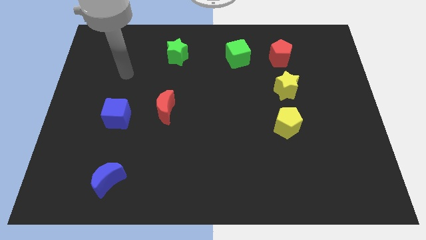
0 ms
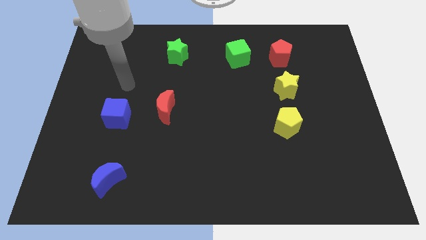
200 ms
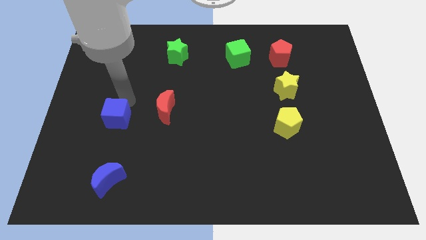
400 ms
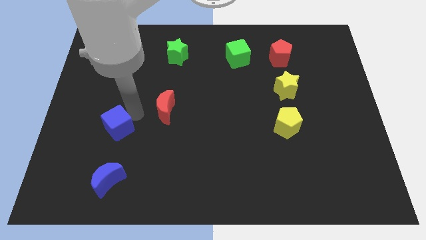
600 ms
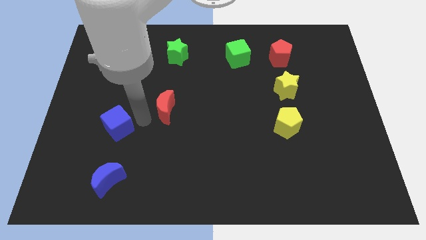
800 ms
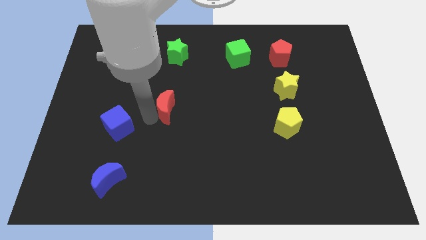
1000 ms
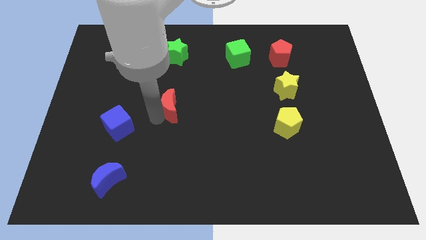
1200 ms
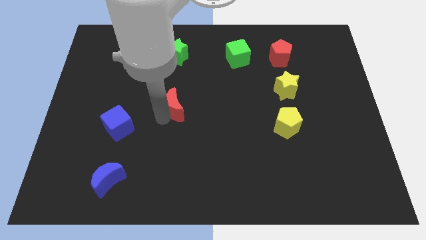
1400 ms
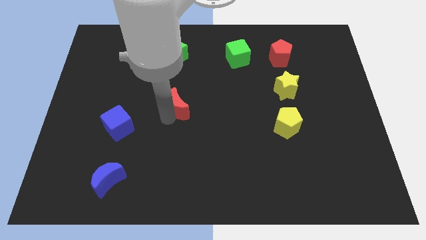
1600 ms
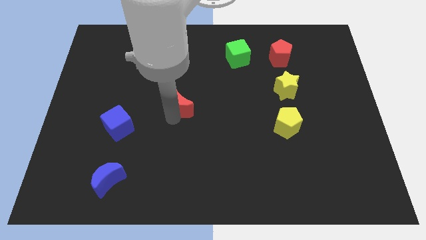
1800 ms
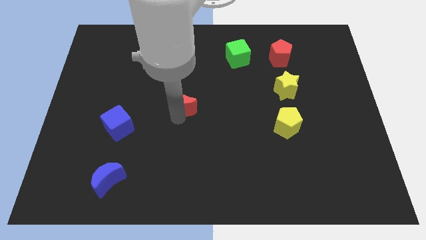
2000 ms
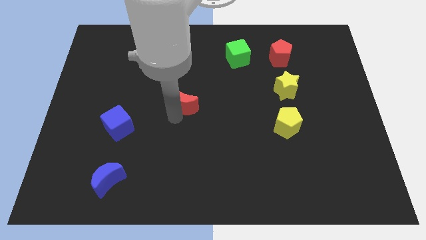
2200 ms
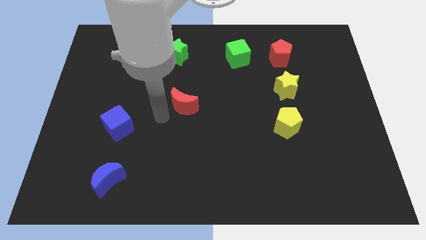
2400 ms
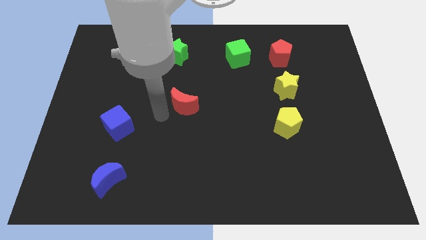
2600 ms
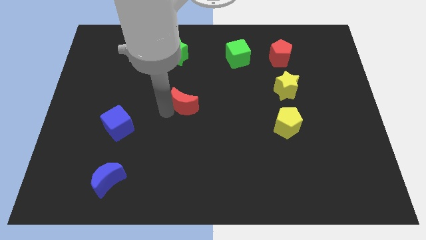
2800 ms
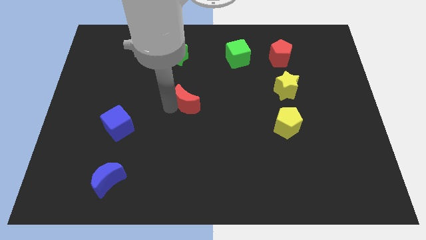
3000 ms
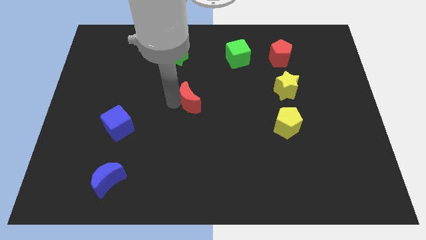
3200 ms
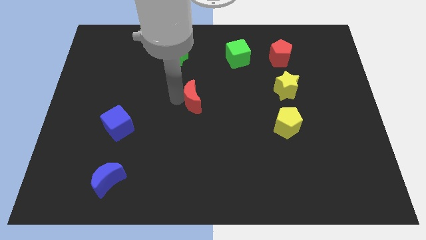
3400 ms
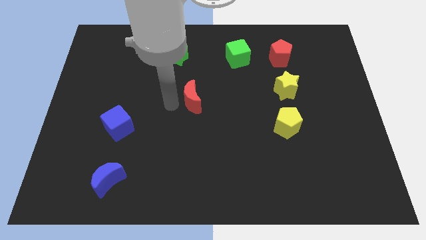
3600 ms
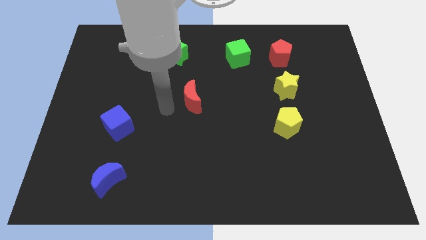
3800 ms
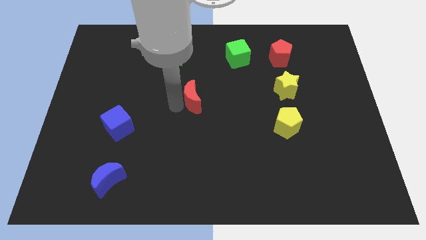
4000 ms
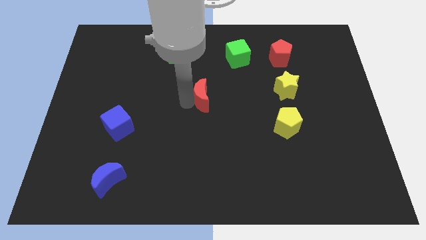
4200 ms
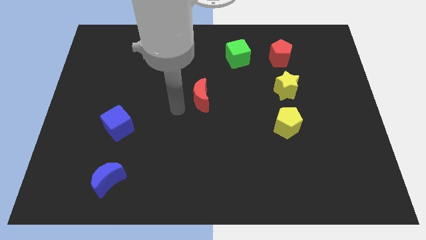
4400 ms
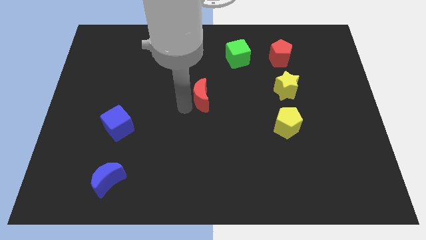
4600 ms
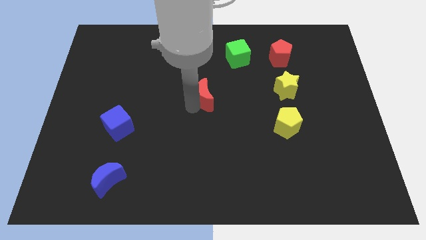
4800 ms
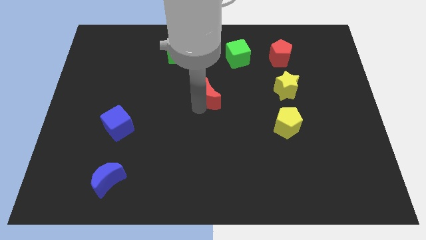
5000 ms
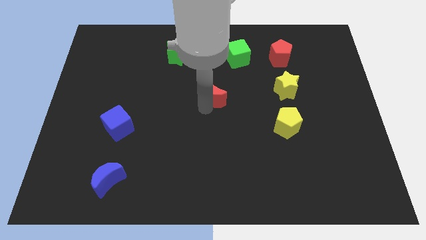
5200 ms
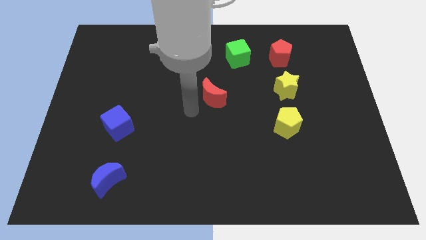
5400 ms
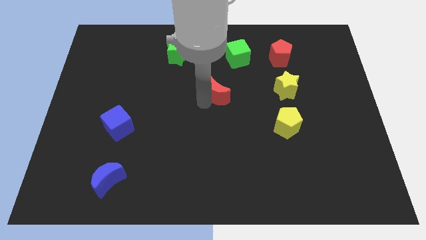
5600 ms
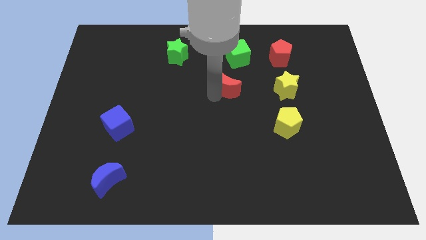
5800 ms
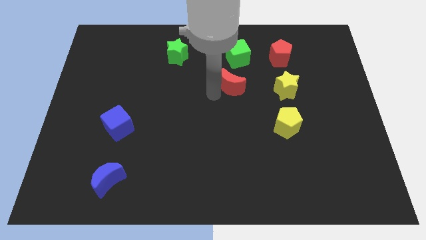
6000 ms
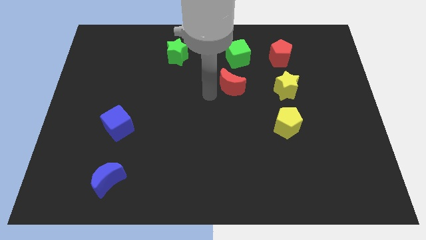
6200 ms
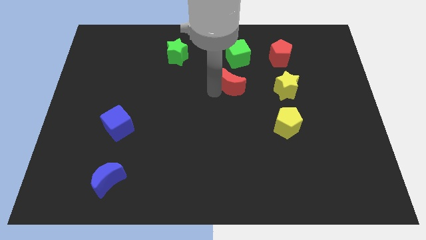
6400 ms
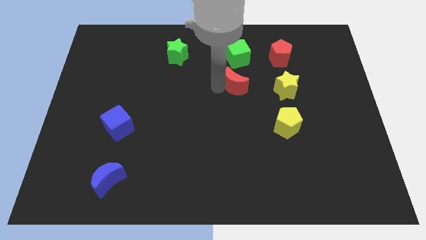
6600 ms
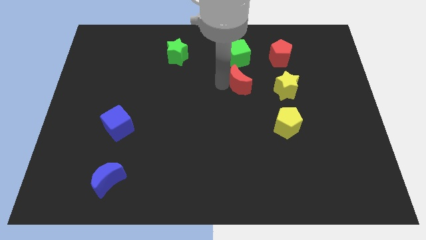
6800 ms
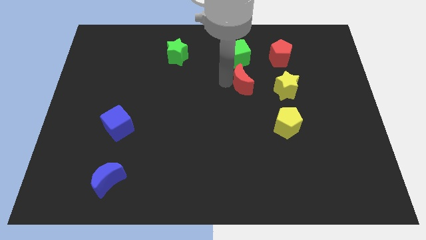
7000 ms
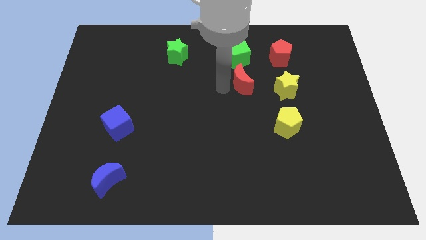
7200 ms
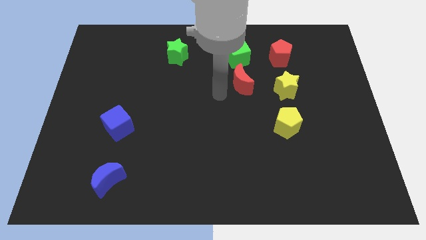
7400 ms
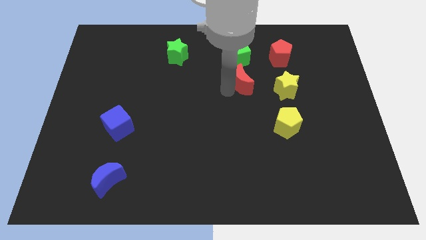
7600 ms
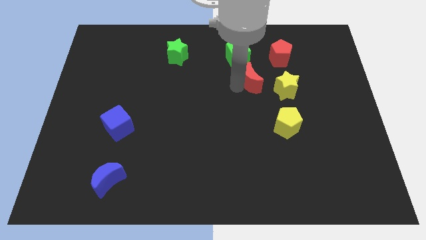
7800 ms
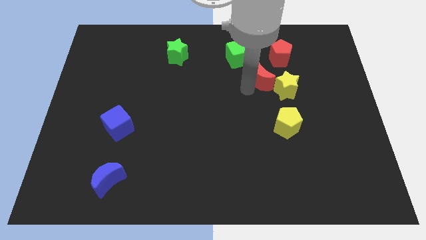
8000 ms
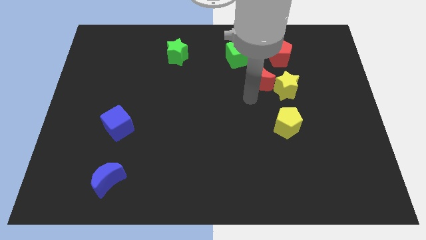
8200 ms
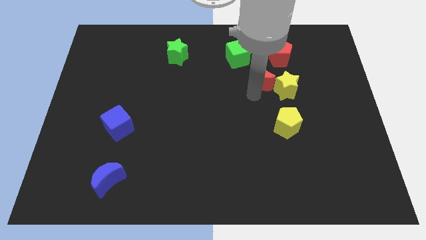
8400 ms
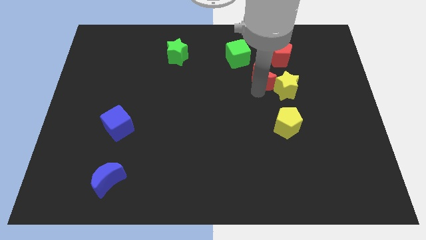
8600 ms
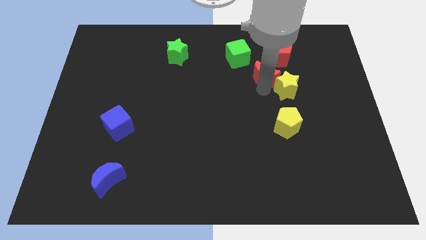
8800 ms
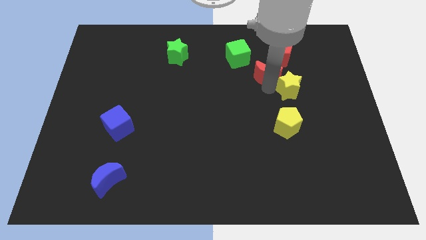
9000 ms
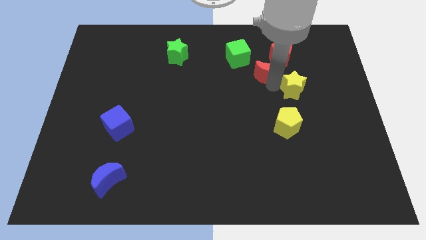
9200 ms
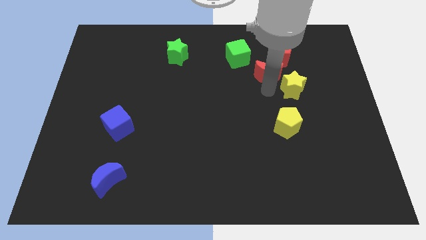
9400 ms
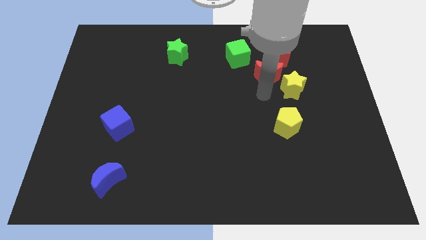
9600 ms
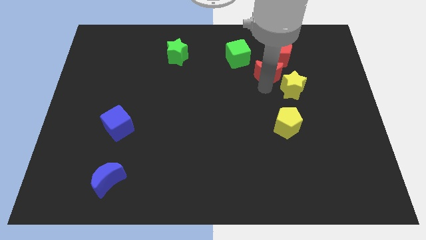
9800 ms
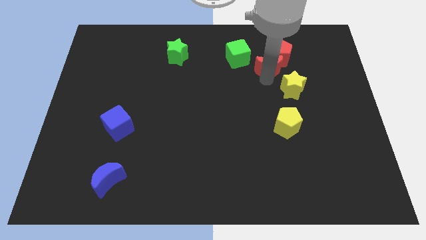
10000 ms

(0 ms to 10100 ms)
slide the red moon to the red pentagon

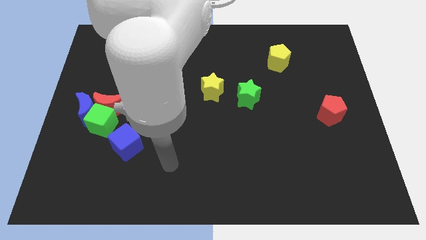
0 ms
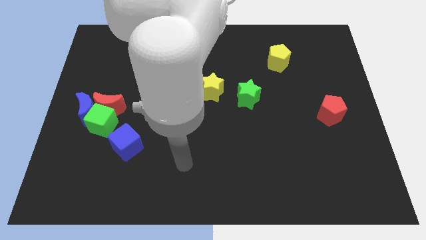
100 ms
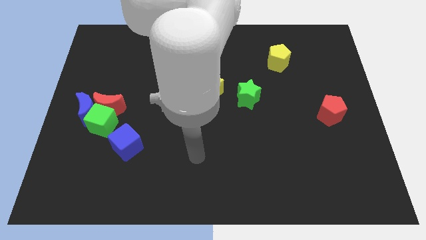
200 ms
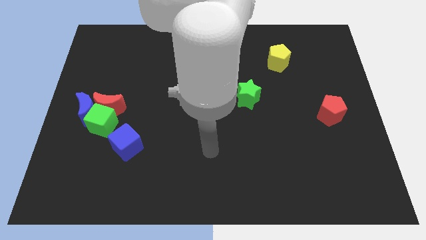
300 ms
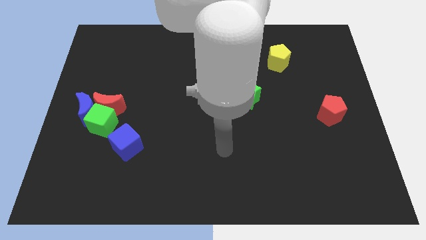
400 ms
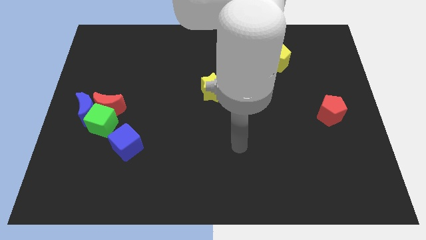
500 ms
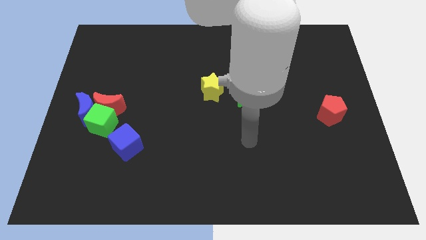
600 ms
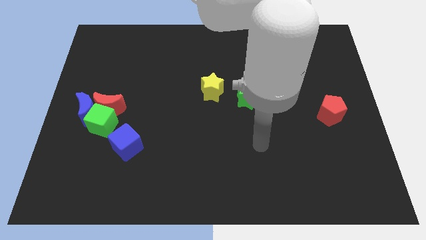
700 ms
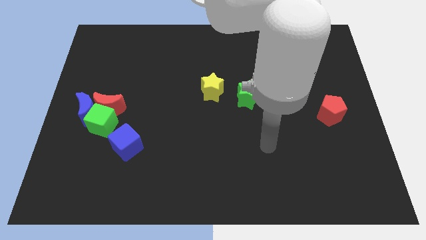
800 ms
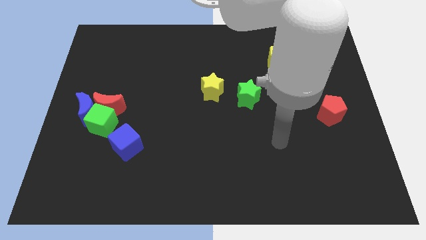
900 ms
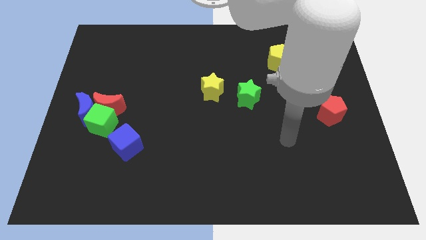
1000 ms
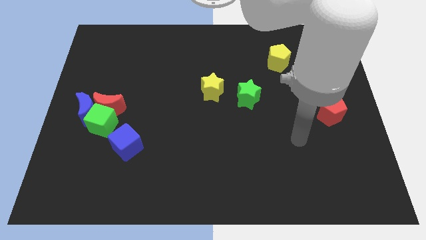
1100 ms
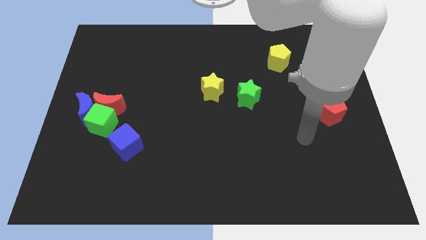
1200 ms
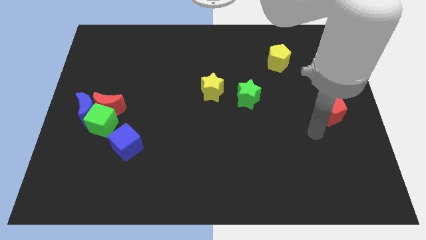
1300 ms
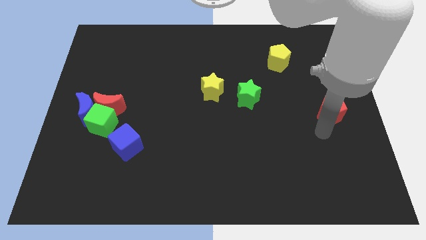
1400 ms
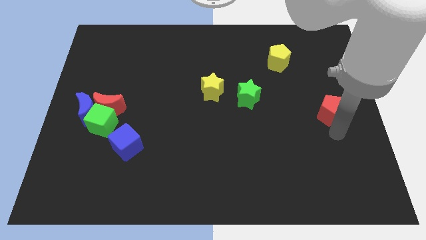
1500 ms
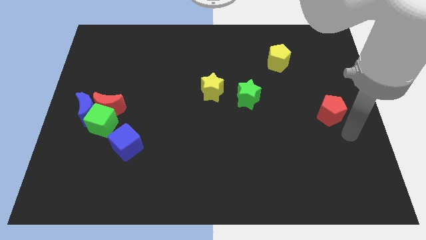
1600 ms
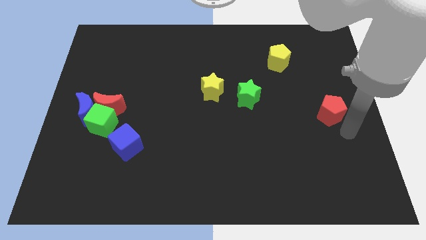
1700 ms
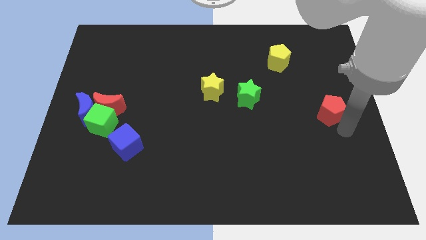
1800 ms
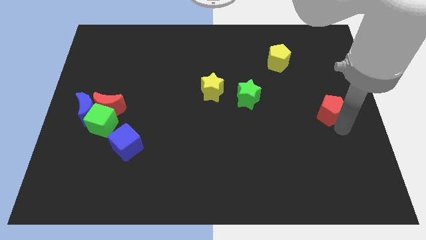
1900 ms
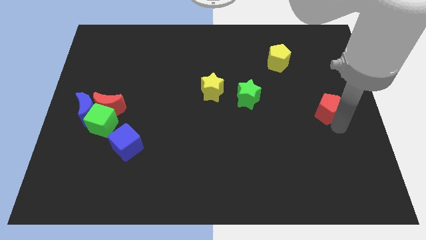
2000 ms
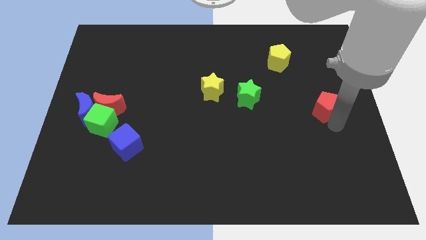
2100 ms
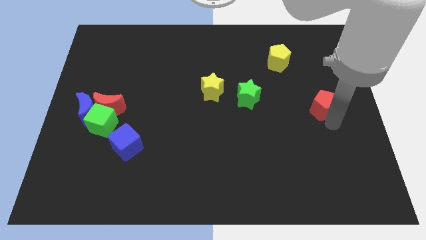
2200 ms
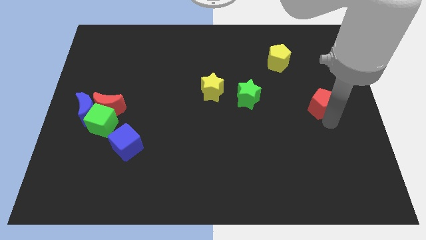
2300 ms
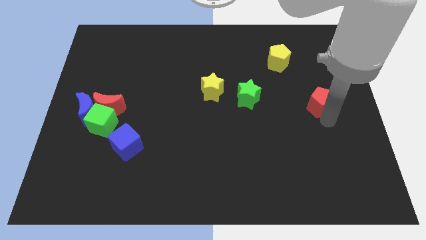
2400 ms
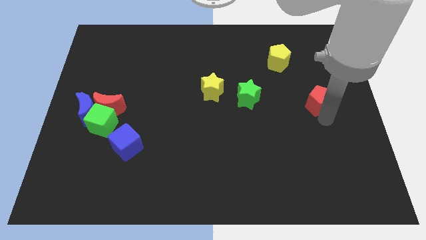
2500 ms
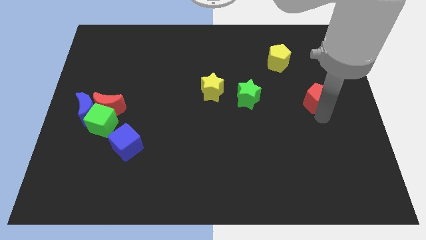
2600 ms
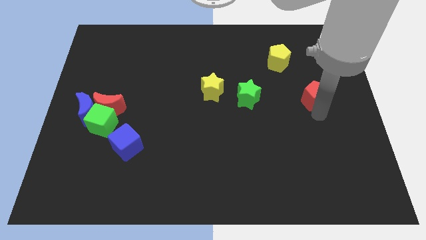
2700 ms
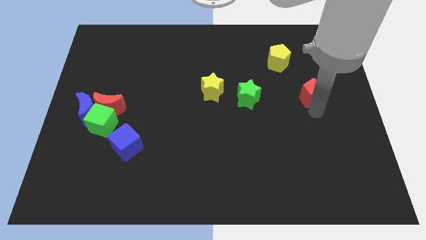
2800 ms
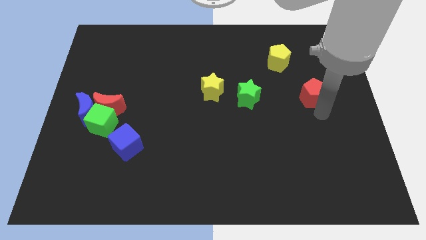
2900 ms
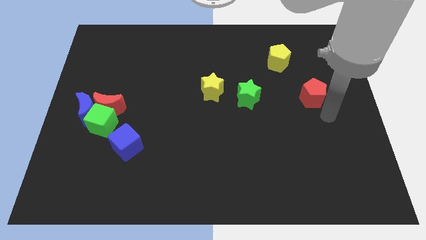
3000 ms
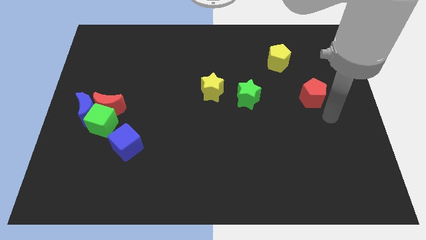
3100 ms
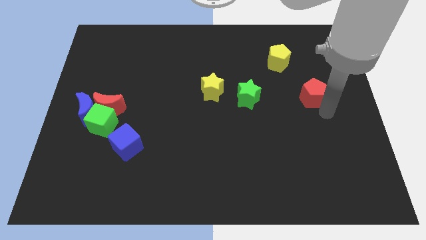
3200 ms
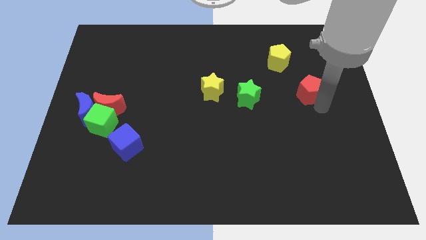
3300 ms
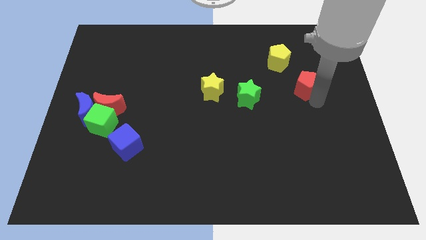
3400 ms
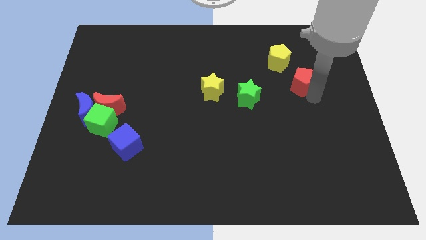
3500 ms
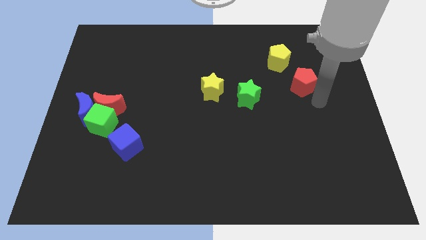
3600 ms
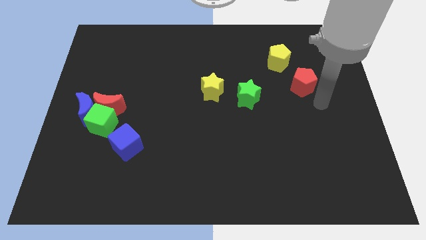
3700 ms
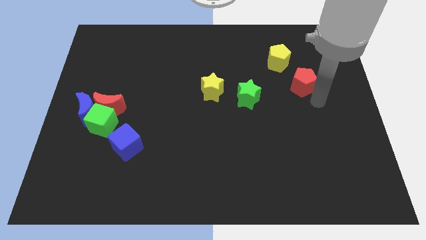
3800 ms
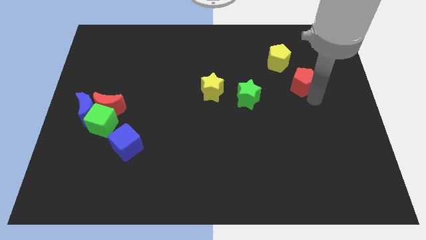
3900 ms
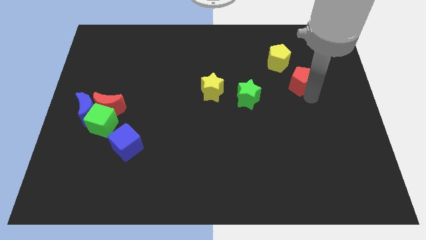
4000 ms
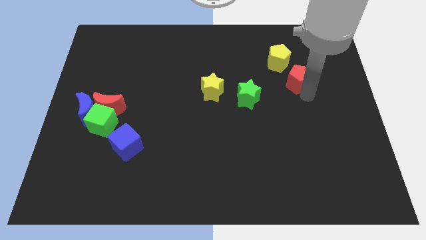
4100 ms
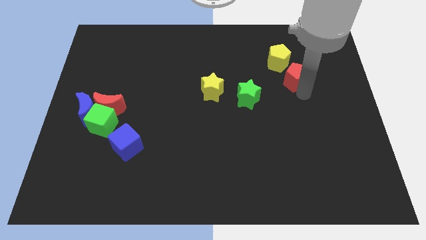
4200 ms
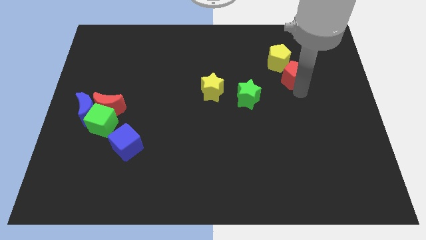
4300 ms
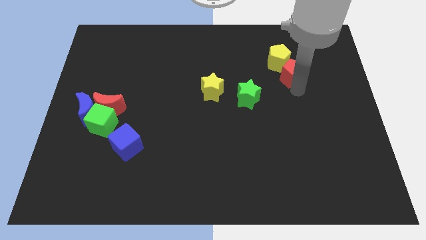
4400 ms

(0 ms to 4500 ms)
put the red pentagon next to the yellow pentagon
